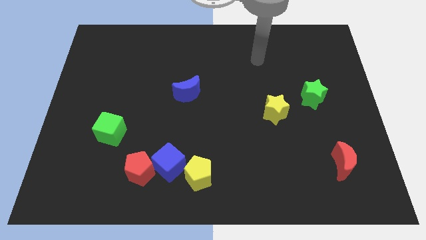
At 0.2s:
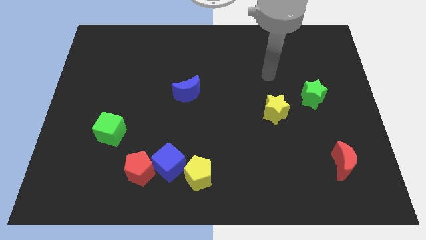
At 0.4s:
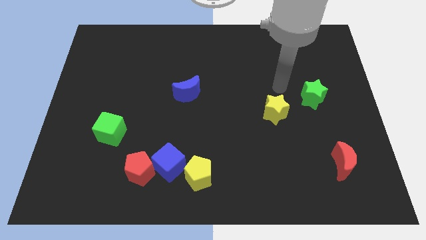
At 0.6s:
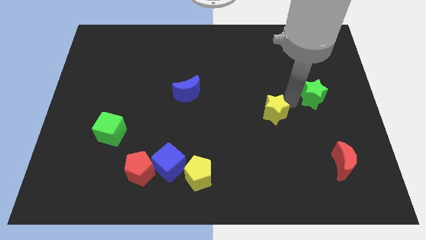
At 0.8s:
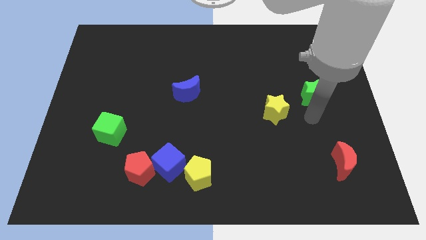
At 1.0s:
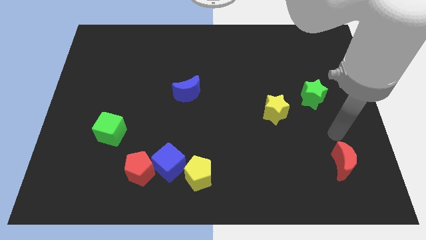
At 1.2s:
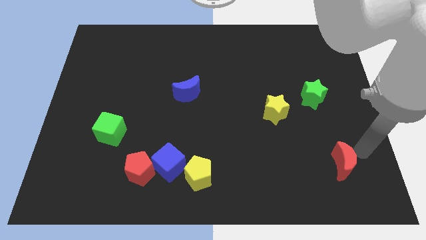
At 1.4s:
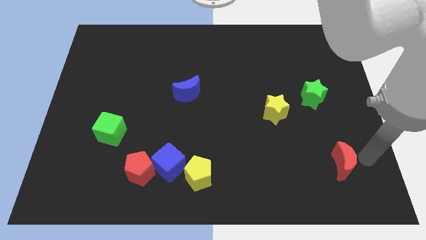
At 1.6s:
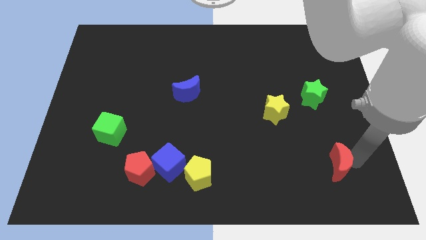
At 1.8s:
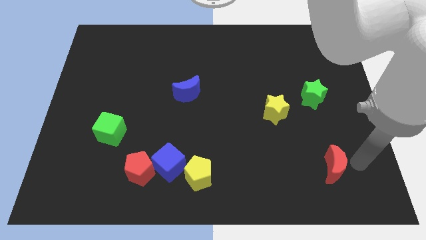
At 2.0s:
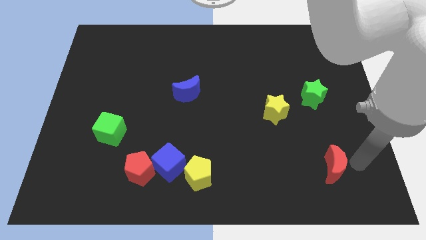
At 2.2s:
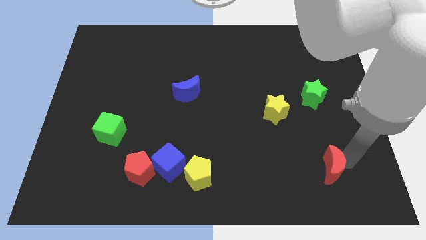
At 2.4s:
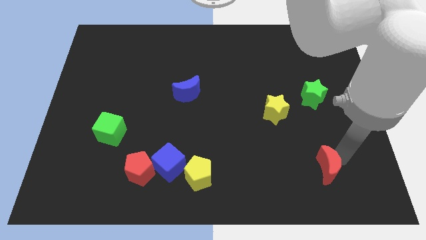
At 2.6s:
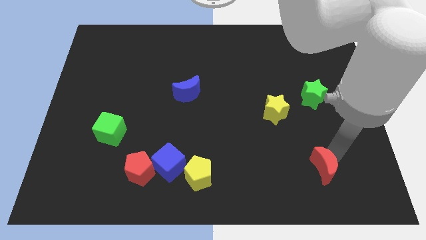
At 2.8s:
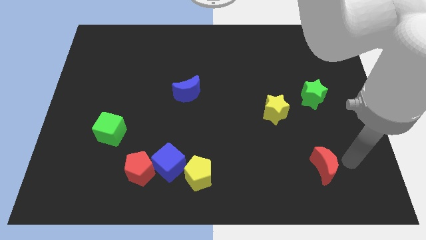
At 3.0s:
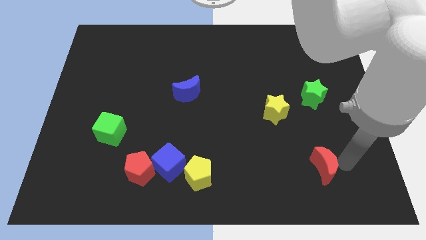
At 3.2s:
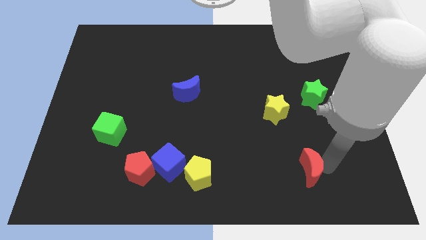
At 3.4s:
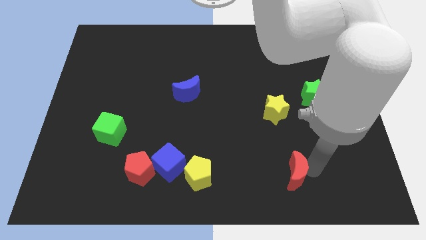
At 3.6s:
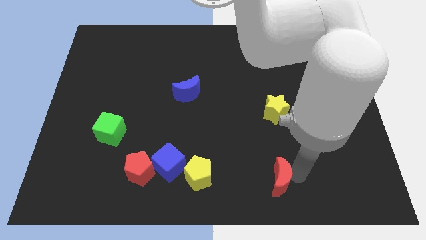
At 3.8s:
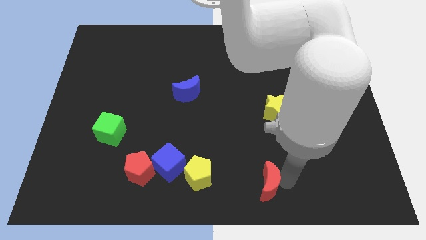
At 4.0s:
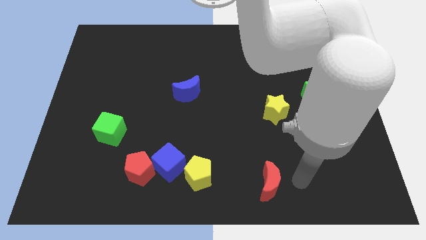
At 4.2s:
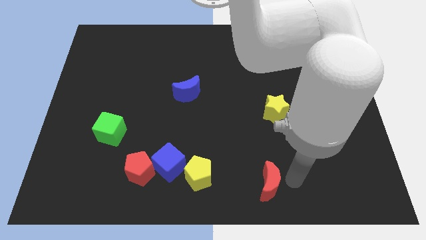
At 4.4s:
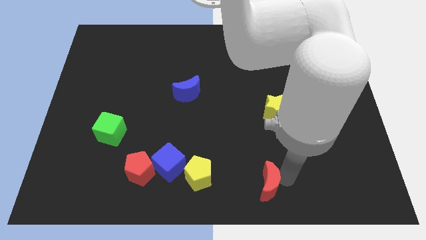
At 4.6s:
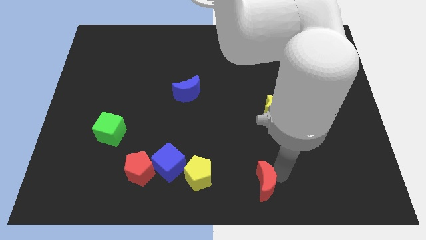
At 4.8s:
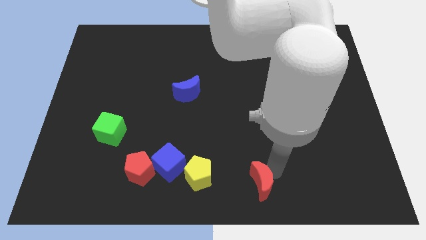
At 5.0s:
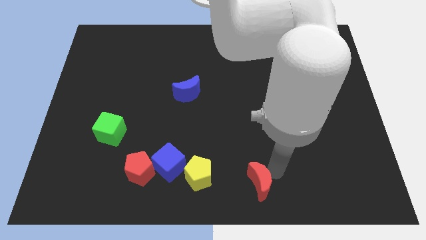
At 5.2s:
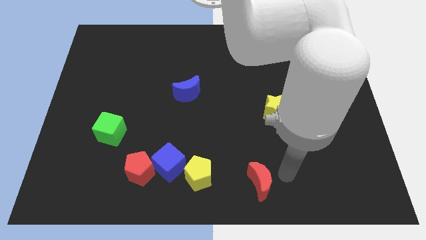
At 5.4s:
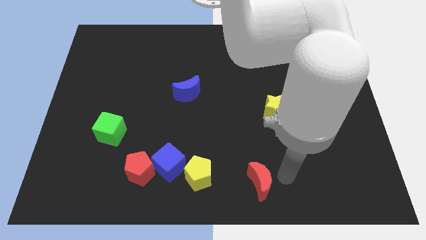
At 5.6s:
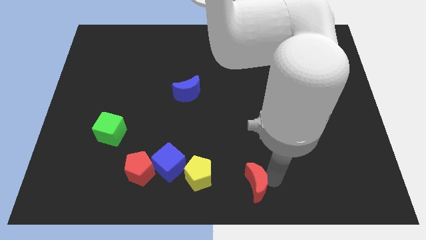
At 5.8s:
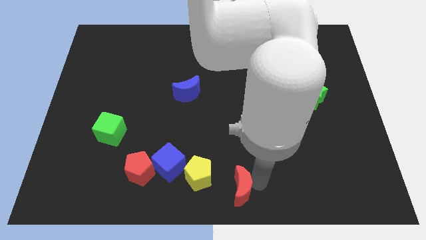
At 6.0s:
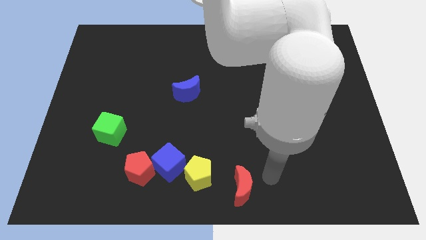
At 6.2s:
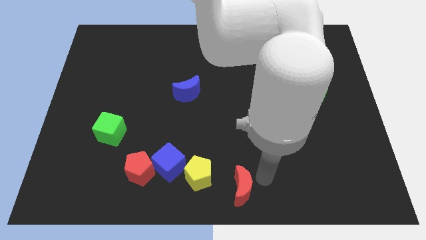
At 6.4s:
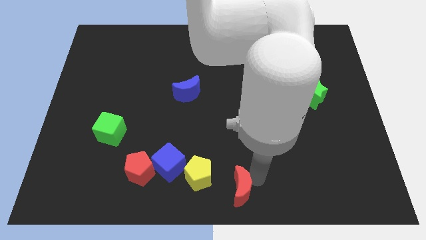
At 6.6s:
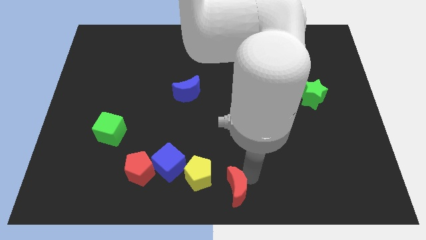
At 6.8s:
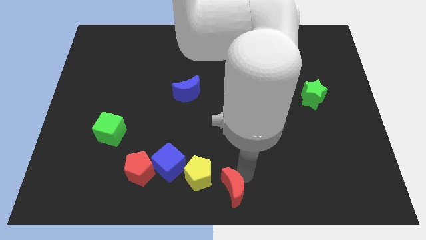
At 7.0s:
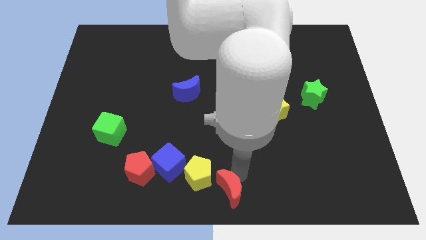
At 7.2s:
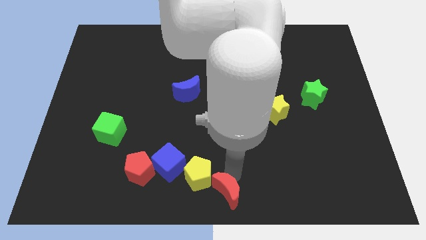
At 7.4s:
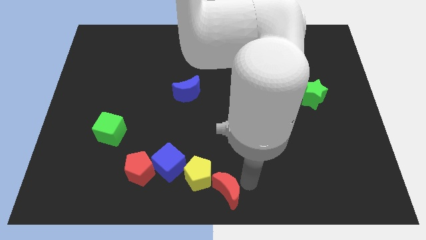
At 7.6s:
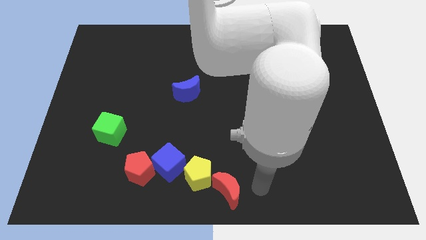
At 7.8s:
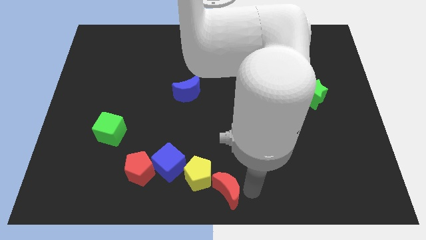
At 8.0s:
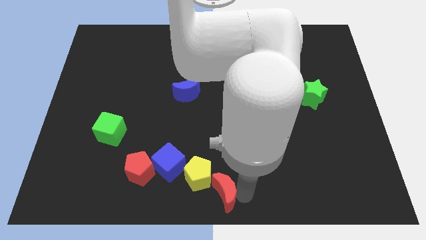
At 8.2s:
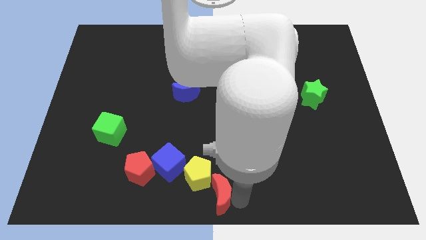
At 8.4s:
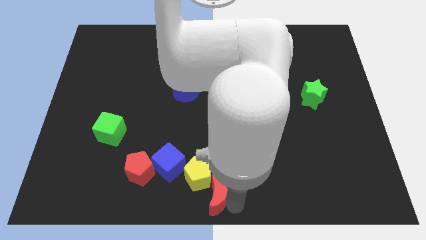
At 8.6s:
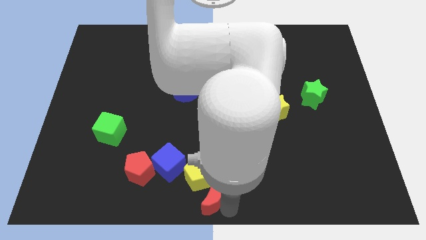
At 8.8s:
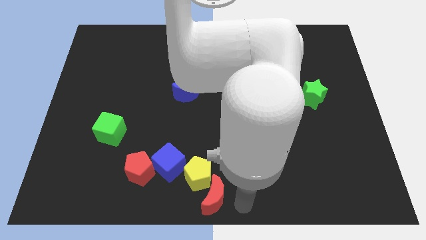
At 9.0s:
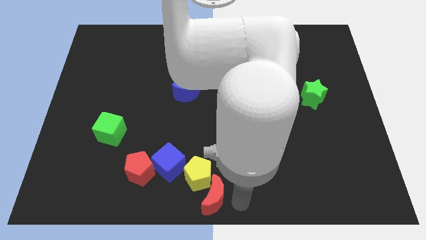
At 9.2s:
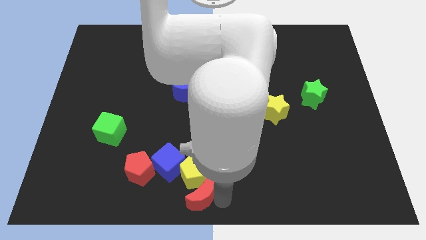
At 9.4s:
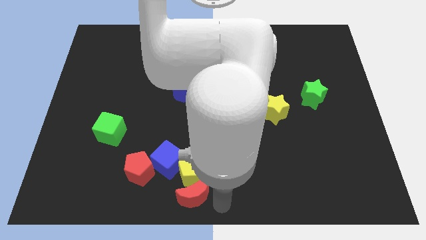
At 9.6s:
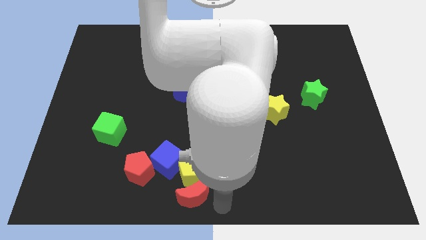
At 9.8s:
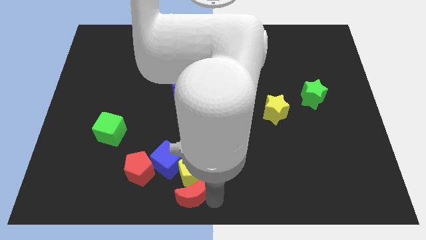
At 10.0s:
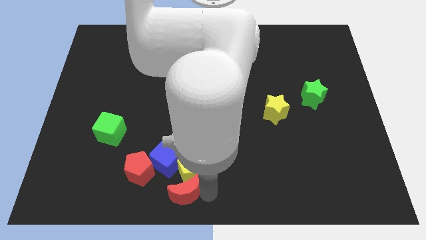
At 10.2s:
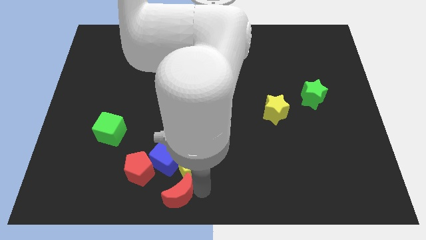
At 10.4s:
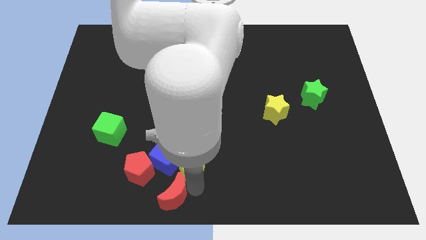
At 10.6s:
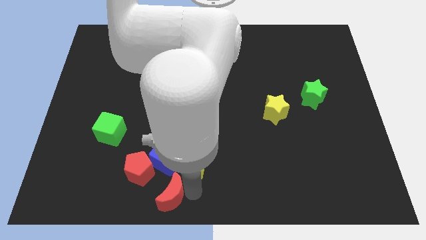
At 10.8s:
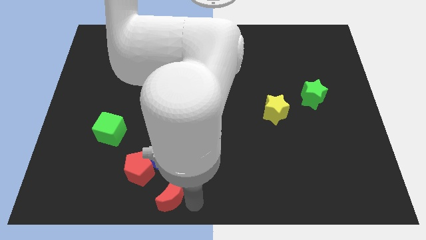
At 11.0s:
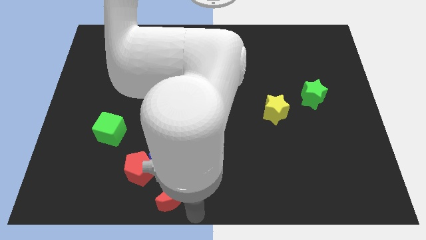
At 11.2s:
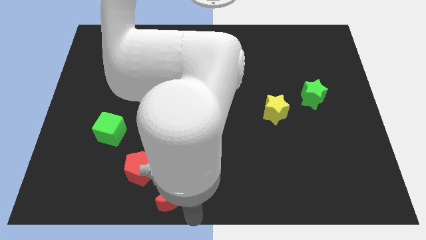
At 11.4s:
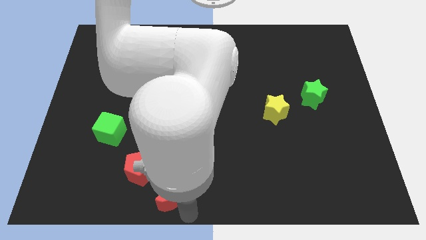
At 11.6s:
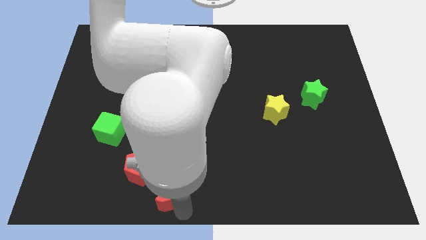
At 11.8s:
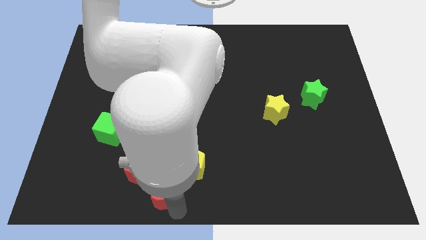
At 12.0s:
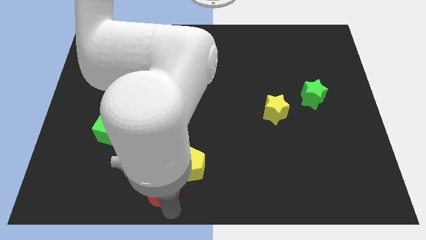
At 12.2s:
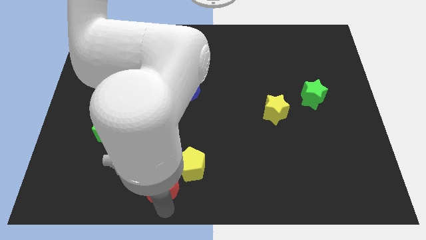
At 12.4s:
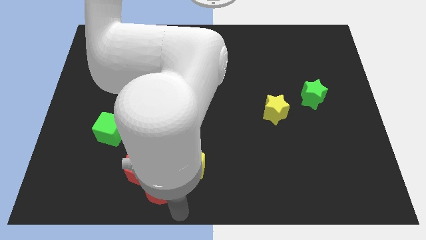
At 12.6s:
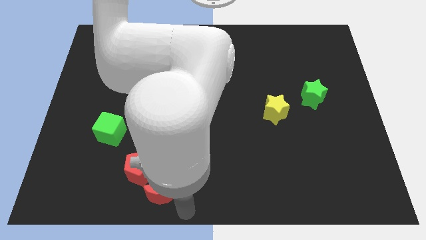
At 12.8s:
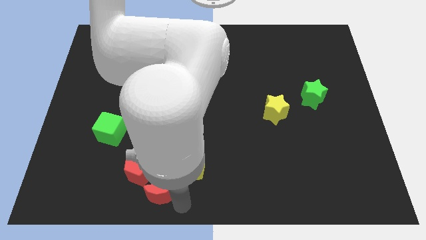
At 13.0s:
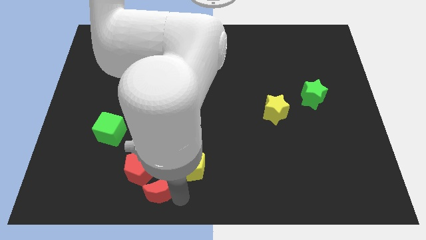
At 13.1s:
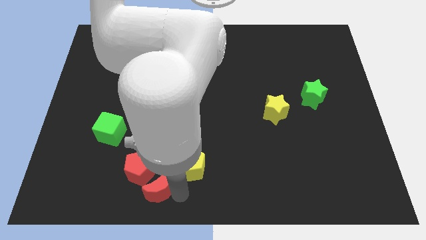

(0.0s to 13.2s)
push the red moon to the red pentagon

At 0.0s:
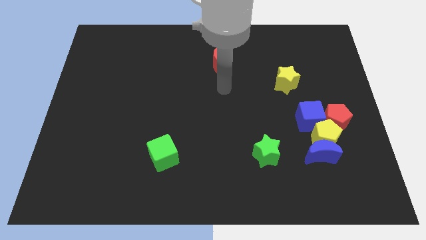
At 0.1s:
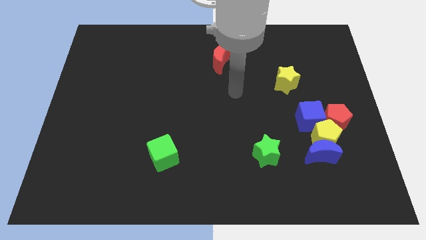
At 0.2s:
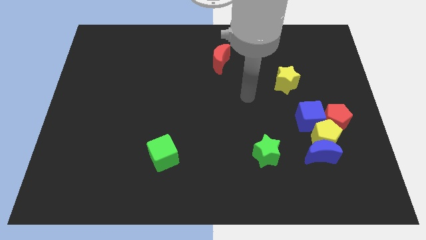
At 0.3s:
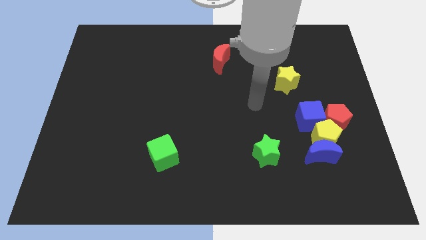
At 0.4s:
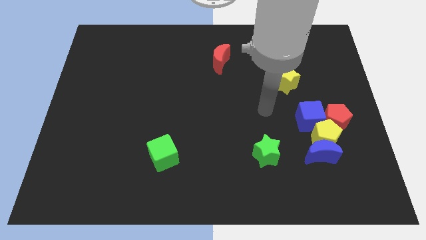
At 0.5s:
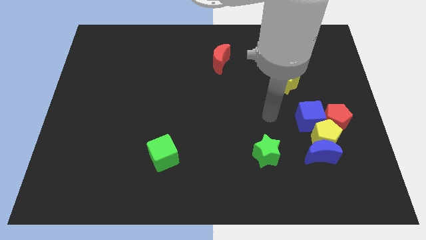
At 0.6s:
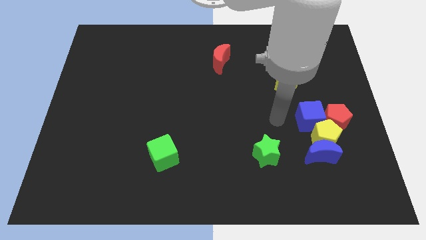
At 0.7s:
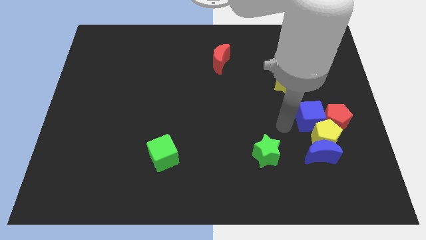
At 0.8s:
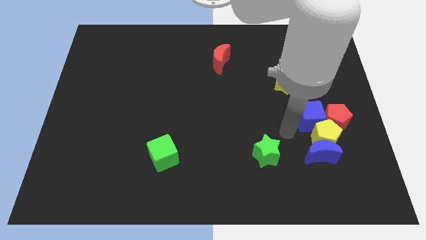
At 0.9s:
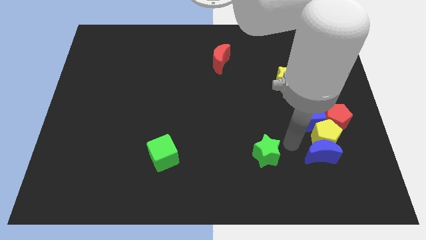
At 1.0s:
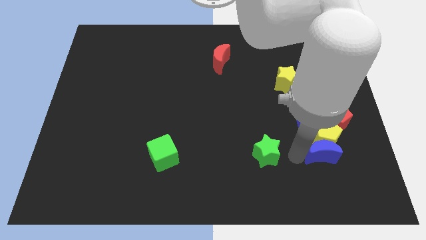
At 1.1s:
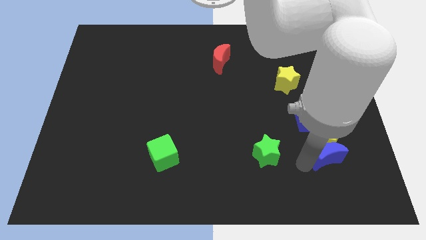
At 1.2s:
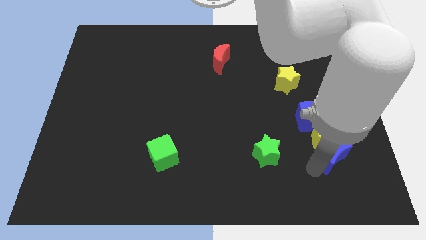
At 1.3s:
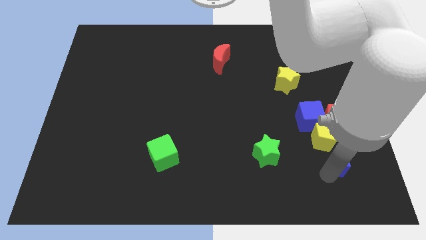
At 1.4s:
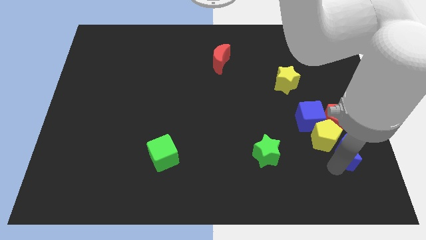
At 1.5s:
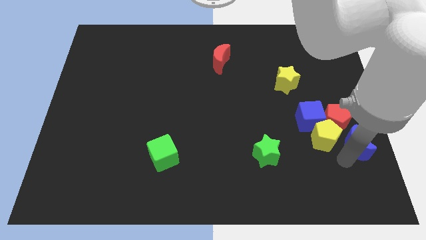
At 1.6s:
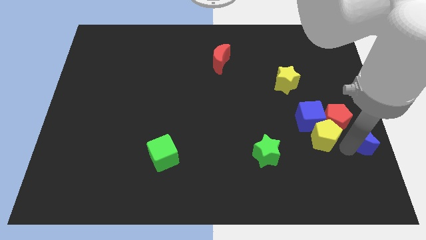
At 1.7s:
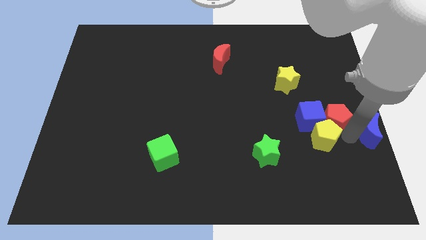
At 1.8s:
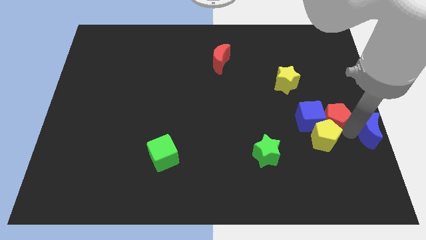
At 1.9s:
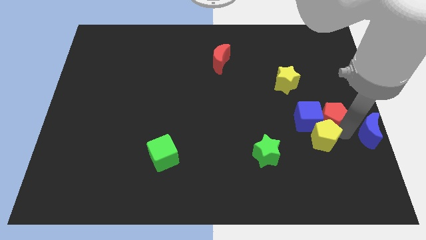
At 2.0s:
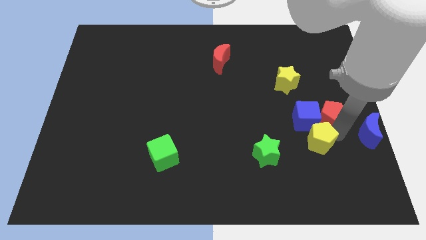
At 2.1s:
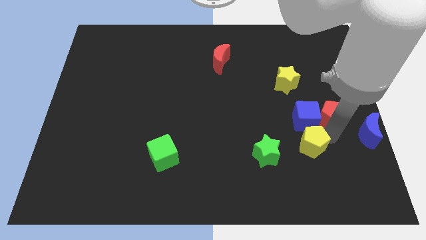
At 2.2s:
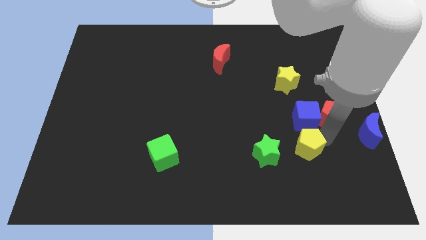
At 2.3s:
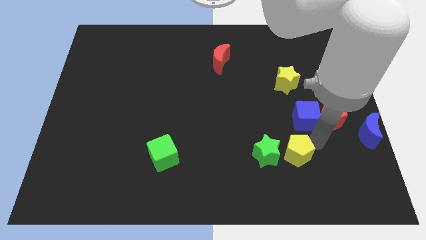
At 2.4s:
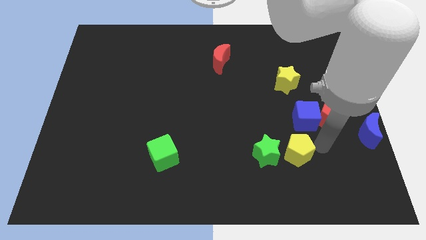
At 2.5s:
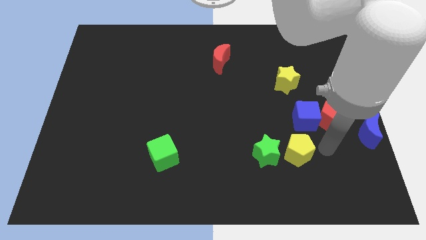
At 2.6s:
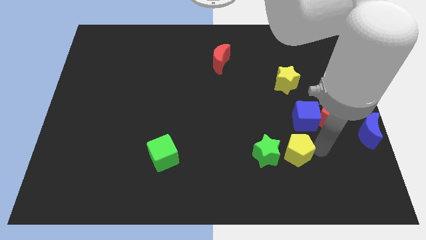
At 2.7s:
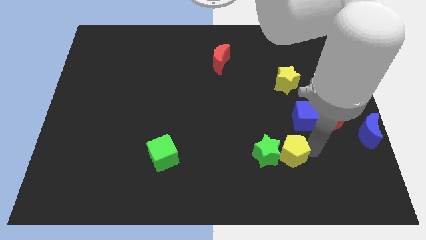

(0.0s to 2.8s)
put the yellow pentagon next to the green star
